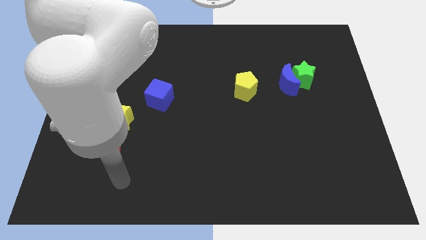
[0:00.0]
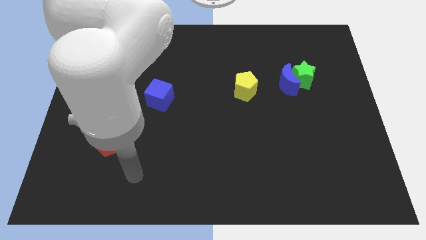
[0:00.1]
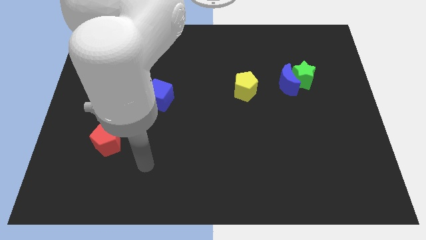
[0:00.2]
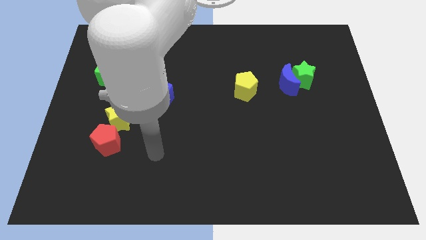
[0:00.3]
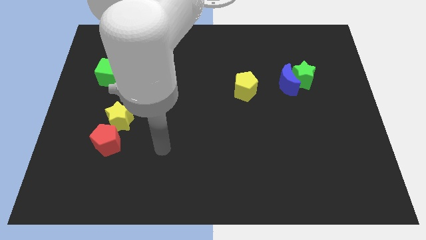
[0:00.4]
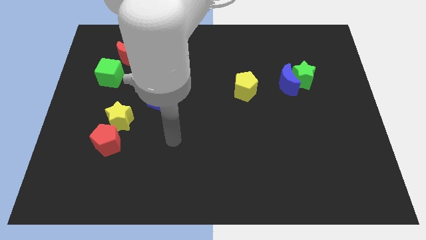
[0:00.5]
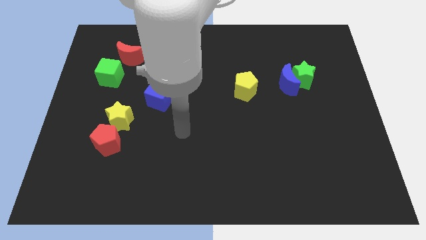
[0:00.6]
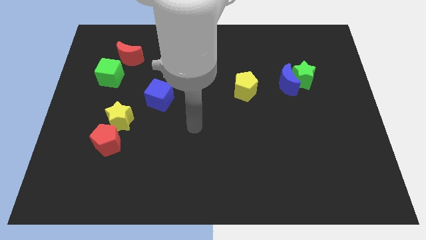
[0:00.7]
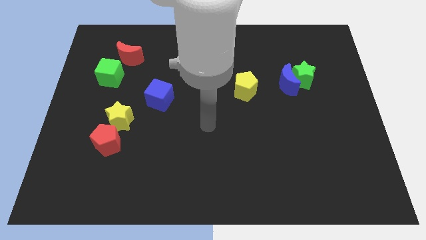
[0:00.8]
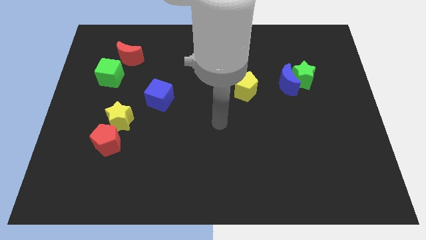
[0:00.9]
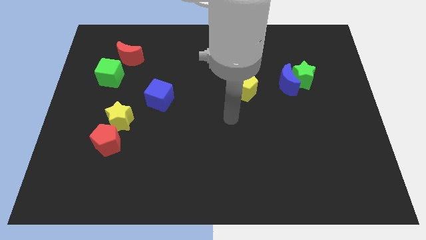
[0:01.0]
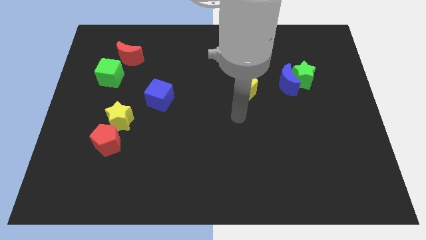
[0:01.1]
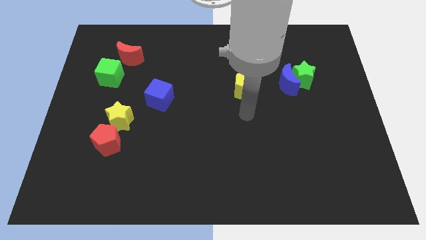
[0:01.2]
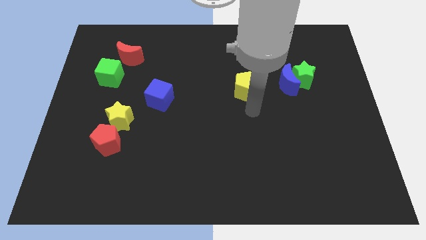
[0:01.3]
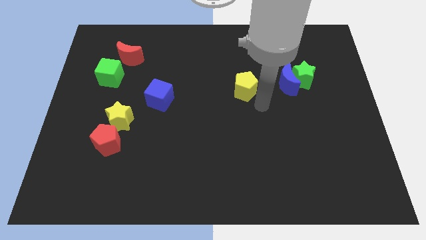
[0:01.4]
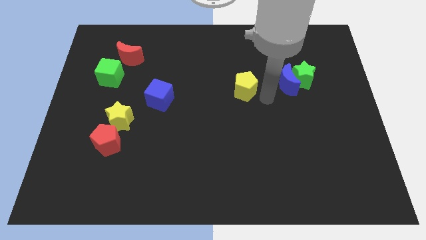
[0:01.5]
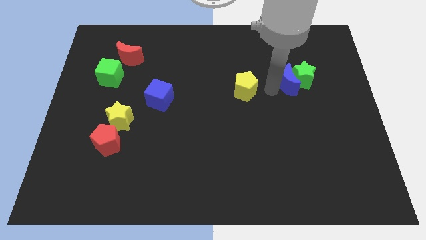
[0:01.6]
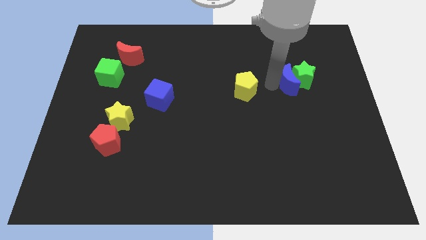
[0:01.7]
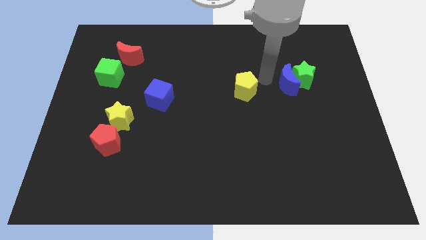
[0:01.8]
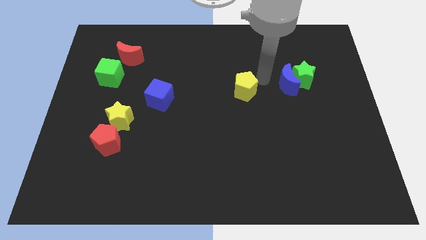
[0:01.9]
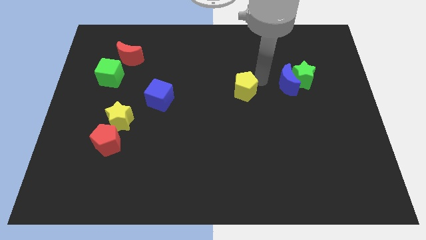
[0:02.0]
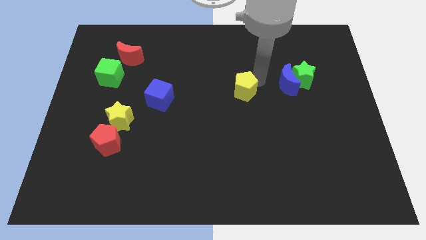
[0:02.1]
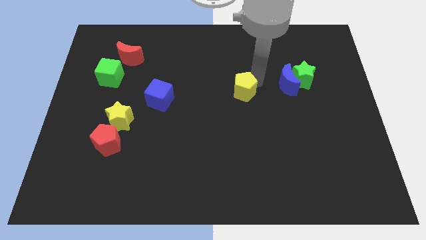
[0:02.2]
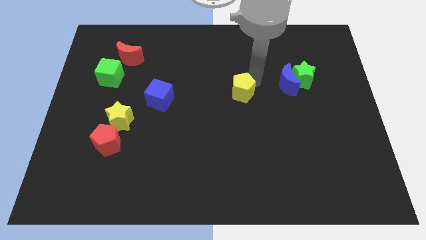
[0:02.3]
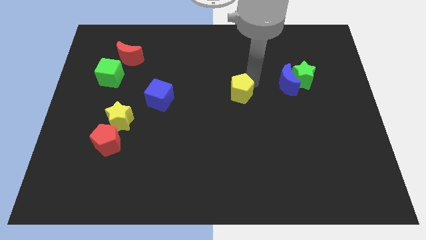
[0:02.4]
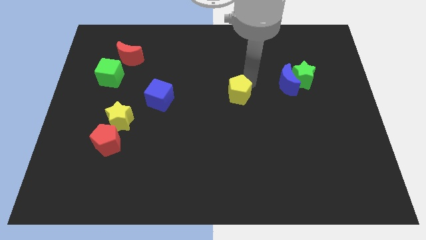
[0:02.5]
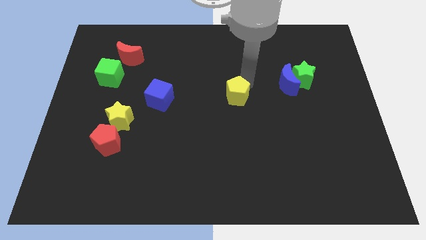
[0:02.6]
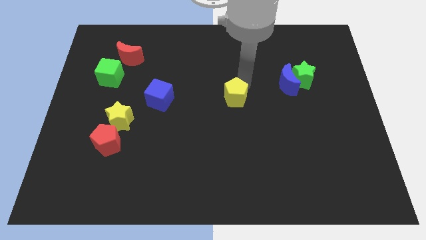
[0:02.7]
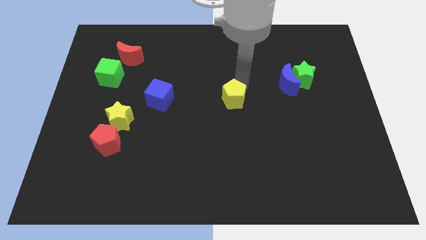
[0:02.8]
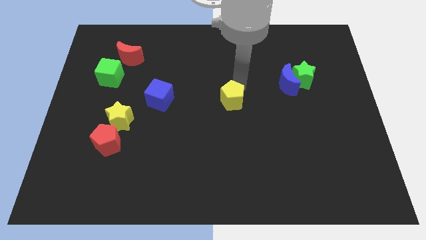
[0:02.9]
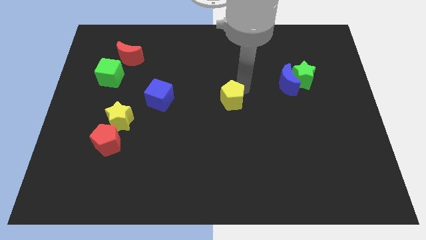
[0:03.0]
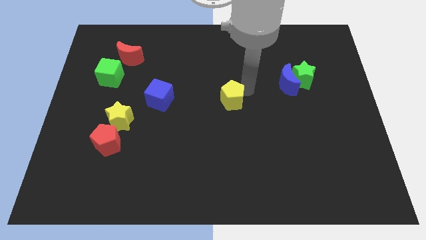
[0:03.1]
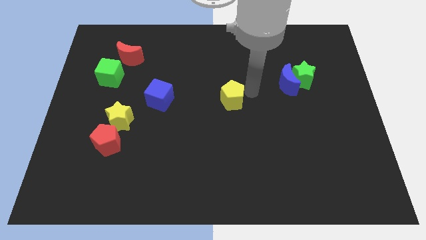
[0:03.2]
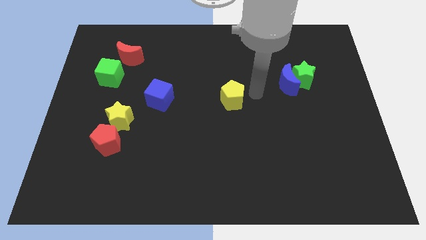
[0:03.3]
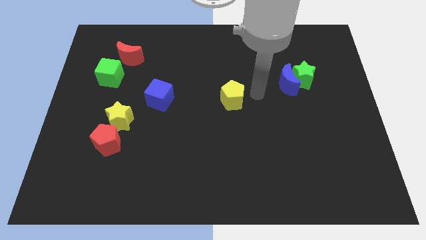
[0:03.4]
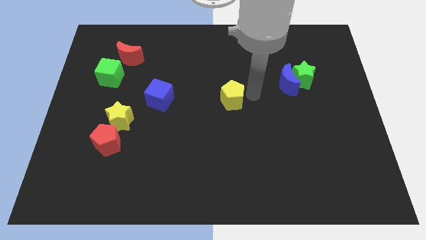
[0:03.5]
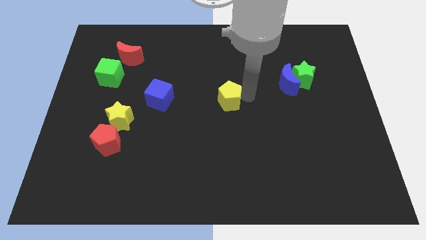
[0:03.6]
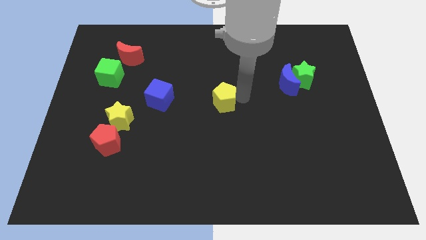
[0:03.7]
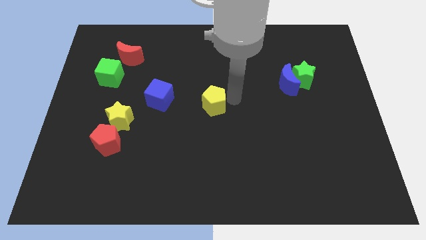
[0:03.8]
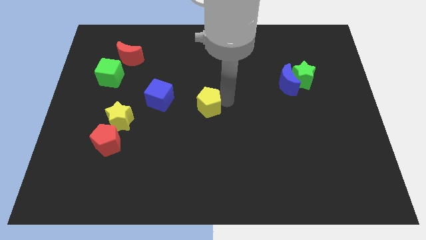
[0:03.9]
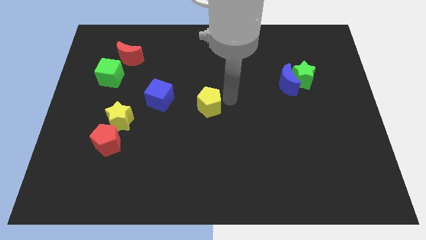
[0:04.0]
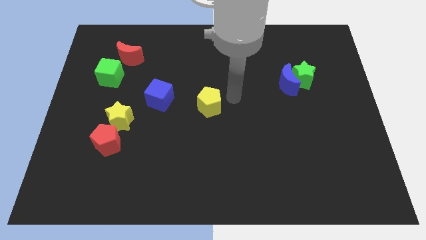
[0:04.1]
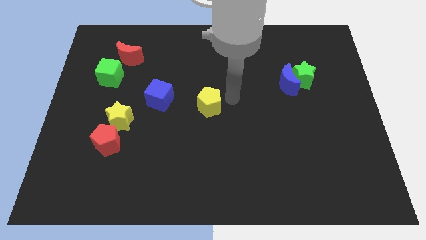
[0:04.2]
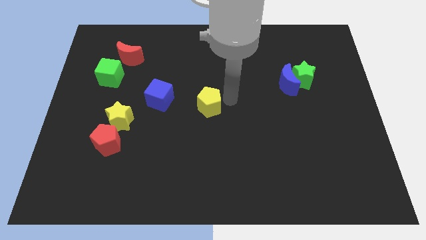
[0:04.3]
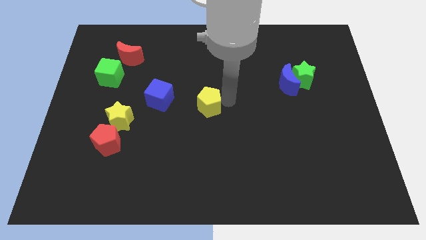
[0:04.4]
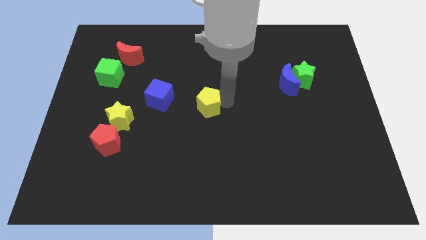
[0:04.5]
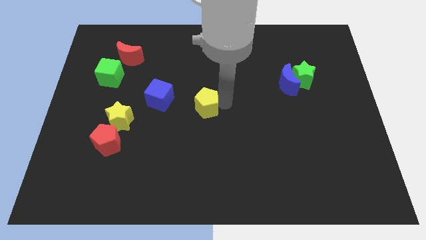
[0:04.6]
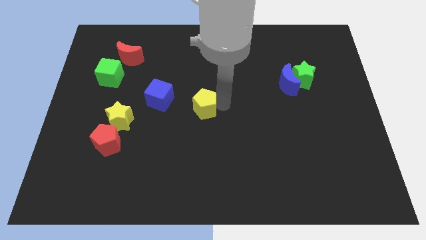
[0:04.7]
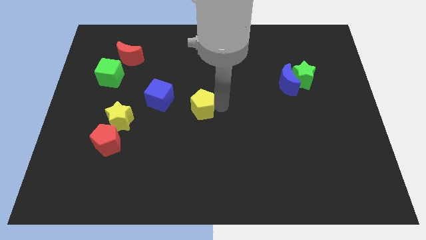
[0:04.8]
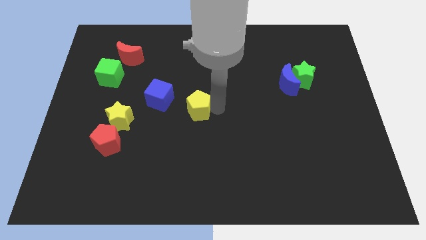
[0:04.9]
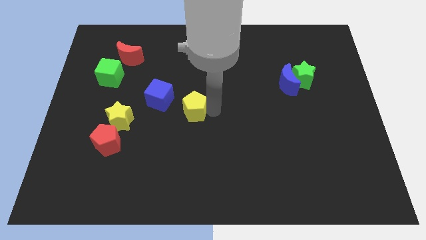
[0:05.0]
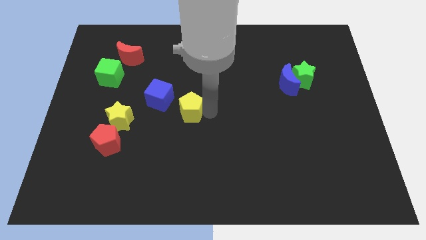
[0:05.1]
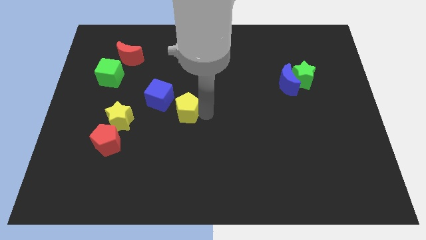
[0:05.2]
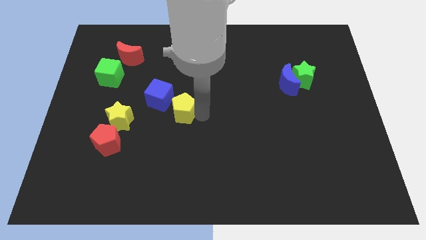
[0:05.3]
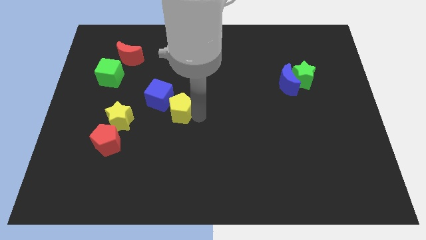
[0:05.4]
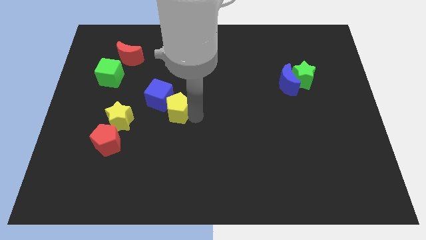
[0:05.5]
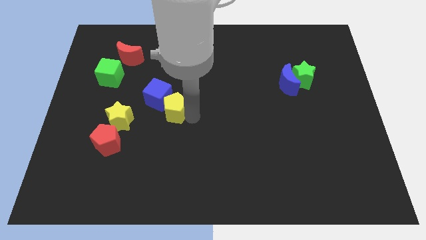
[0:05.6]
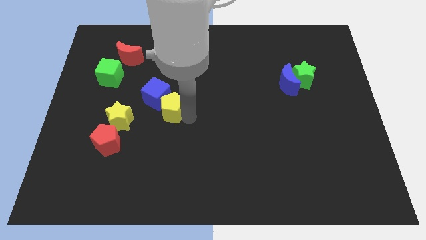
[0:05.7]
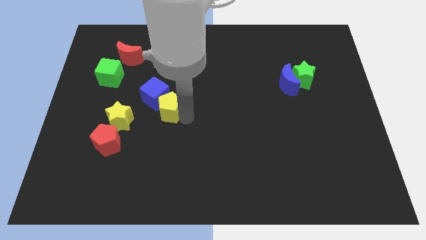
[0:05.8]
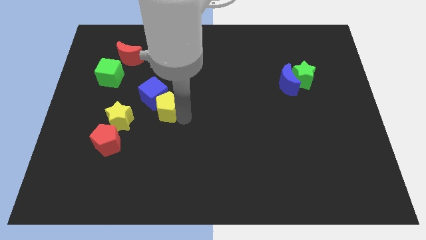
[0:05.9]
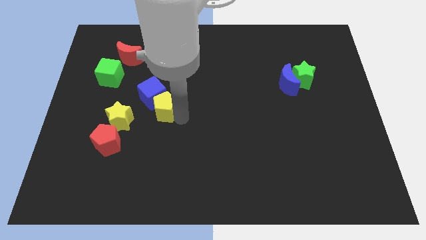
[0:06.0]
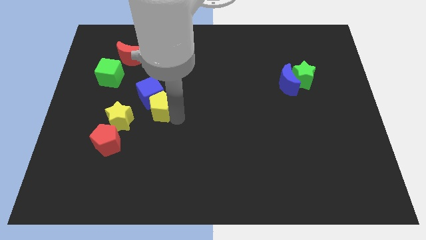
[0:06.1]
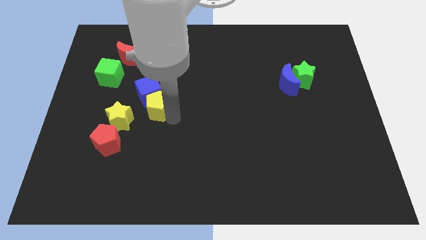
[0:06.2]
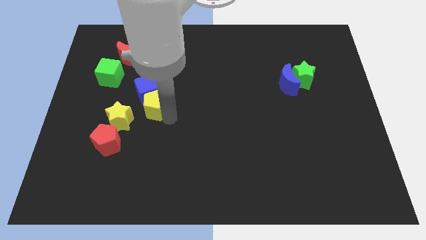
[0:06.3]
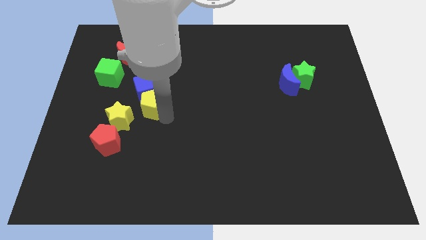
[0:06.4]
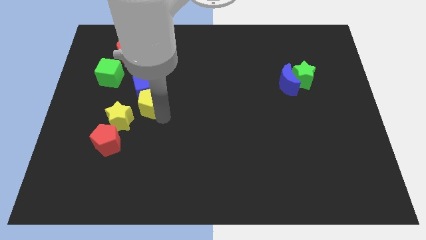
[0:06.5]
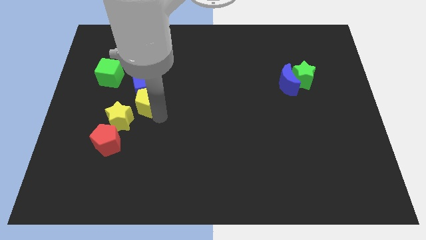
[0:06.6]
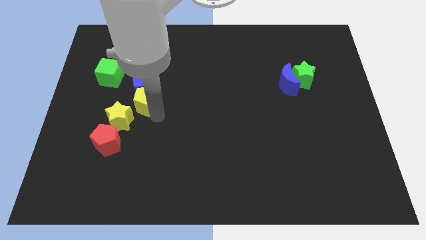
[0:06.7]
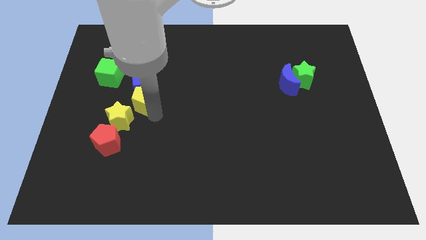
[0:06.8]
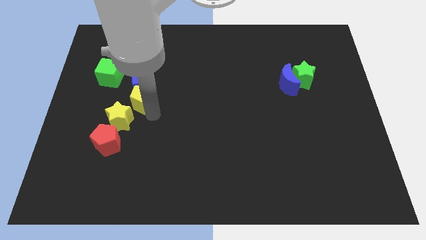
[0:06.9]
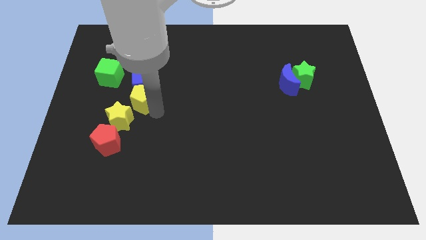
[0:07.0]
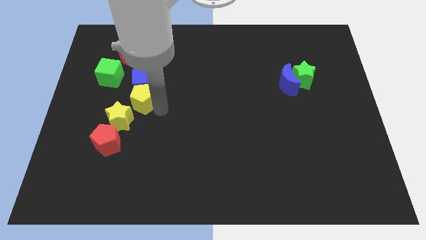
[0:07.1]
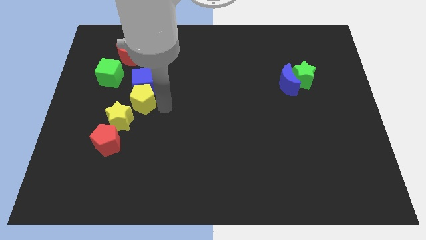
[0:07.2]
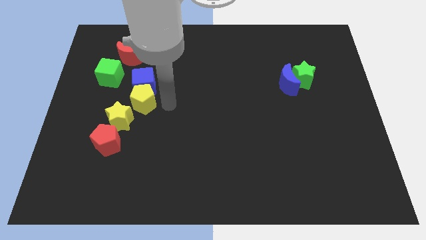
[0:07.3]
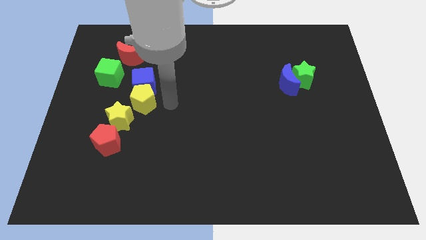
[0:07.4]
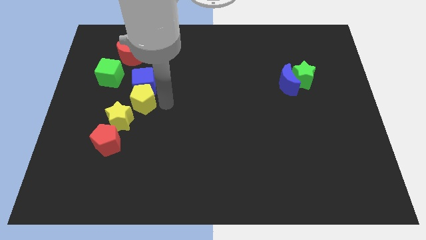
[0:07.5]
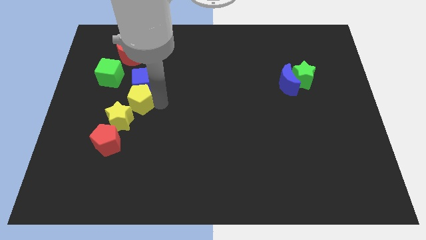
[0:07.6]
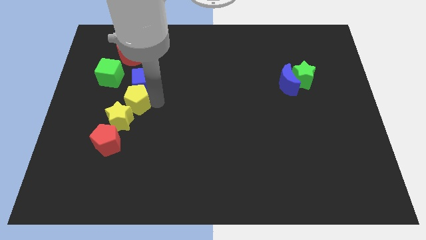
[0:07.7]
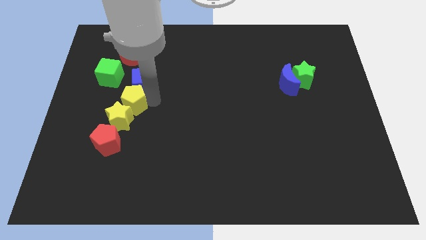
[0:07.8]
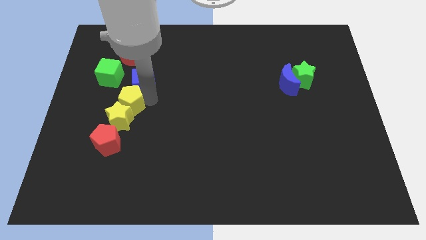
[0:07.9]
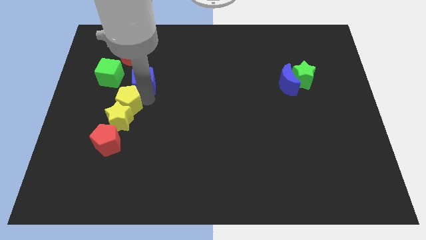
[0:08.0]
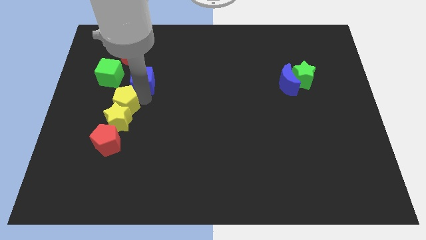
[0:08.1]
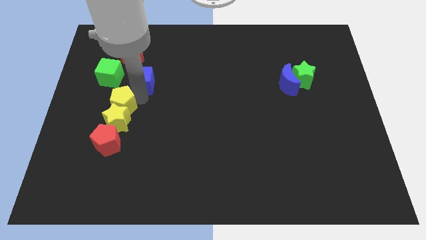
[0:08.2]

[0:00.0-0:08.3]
push the yellow pentagon to the bottom side of the green cube
